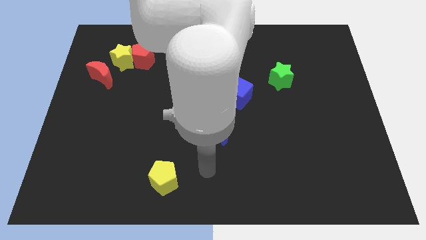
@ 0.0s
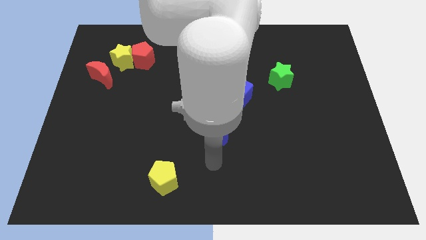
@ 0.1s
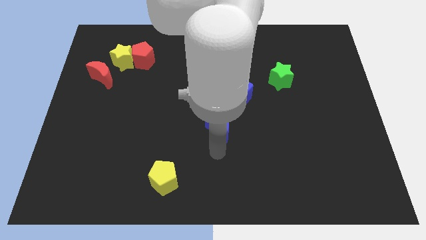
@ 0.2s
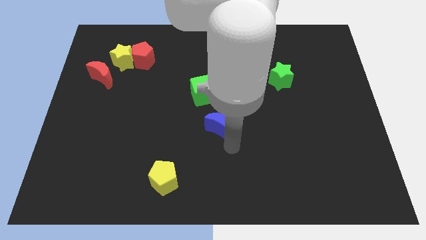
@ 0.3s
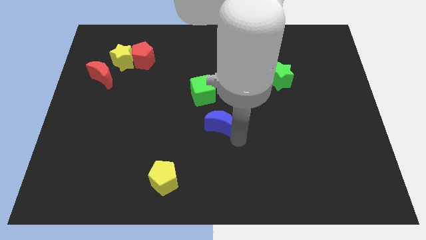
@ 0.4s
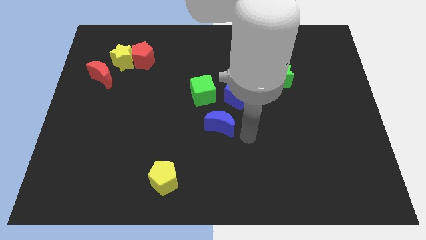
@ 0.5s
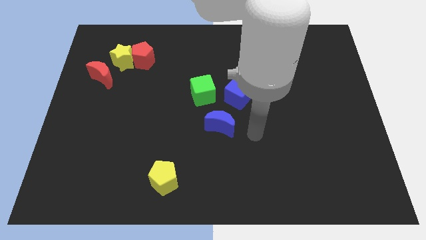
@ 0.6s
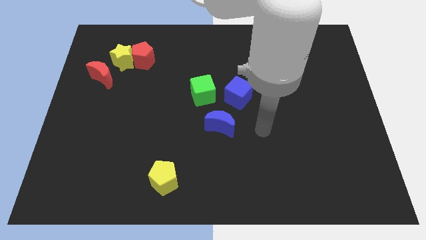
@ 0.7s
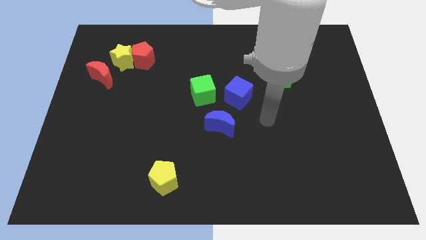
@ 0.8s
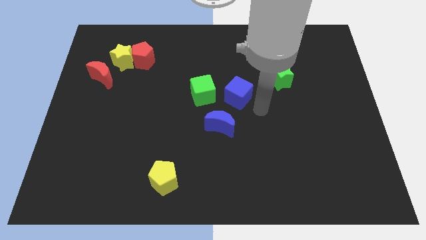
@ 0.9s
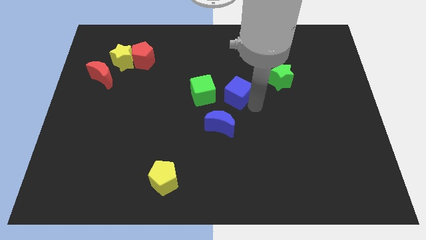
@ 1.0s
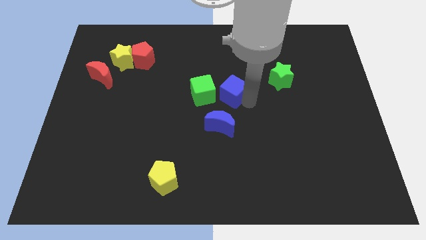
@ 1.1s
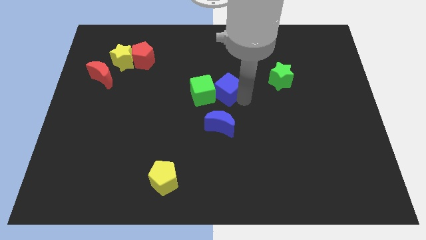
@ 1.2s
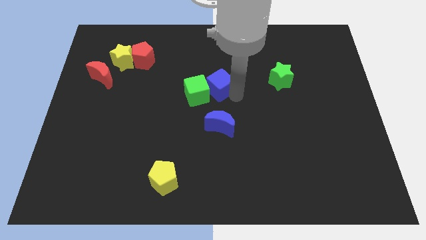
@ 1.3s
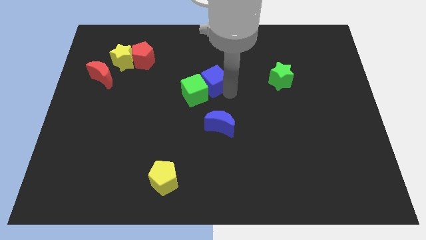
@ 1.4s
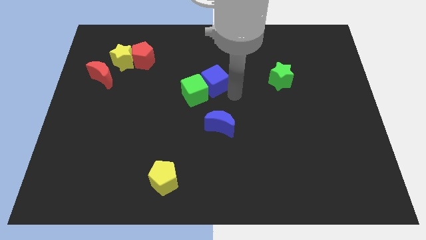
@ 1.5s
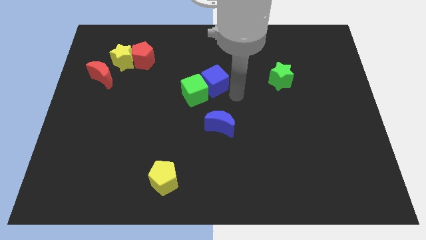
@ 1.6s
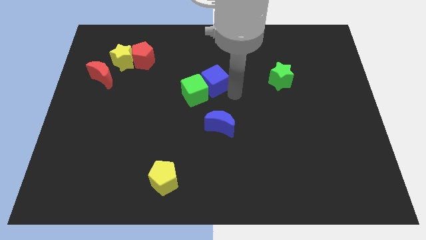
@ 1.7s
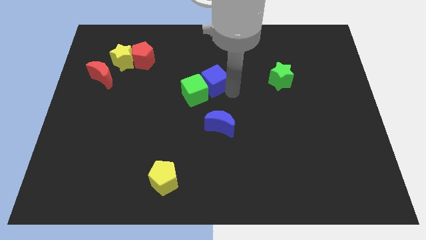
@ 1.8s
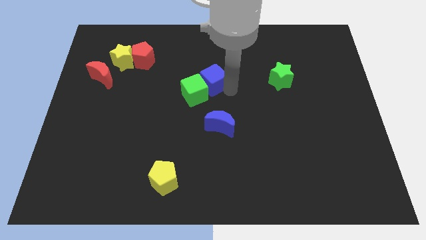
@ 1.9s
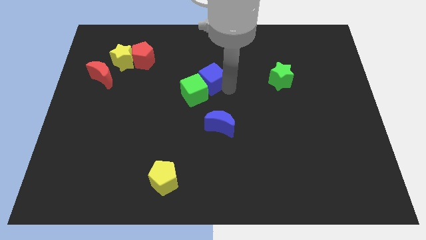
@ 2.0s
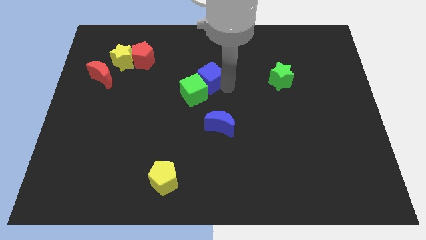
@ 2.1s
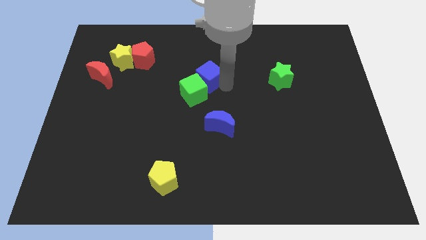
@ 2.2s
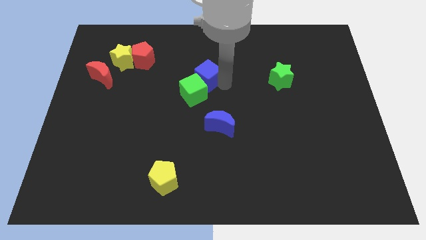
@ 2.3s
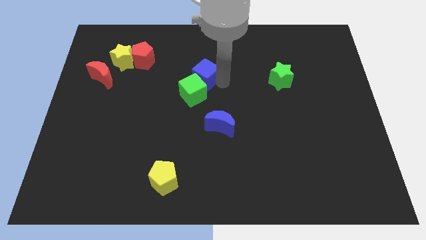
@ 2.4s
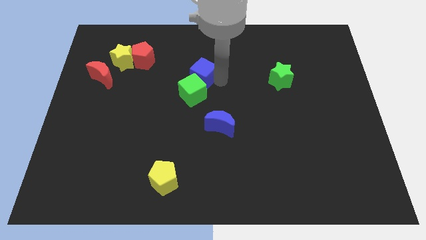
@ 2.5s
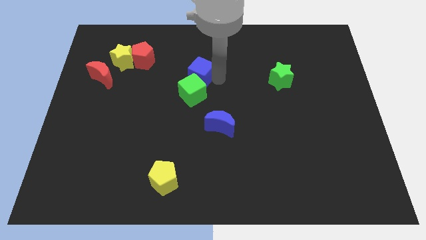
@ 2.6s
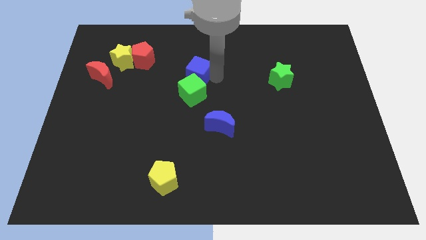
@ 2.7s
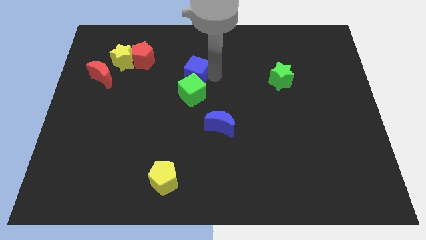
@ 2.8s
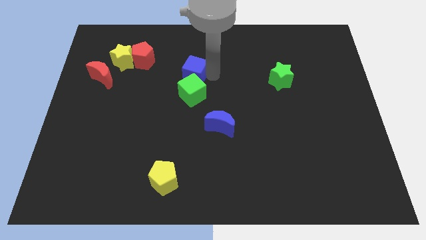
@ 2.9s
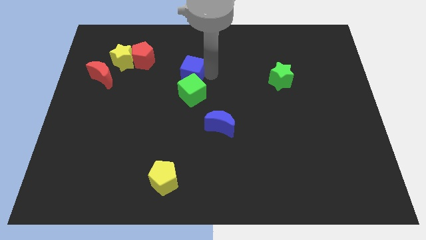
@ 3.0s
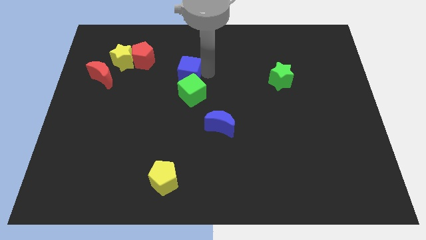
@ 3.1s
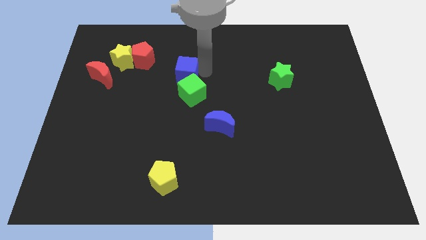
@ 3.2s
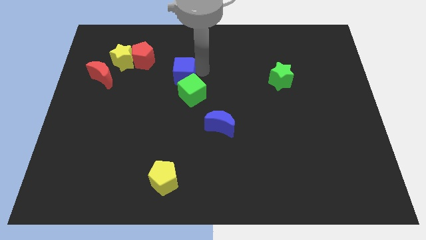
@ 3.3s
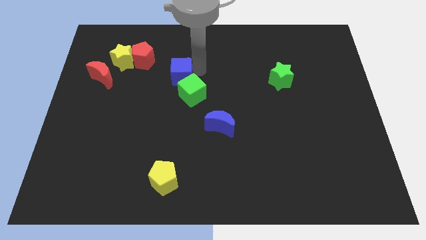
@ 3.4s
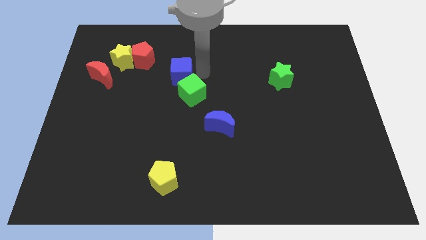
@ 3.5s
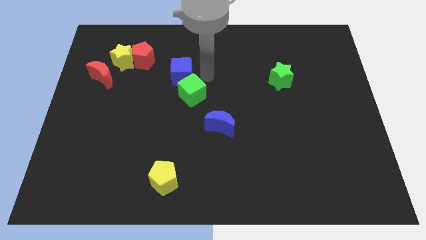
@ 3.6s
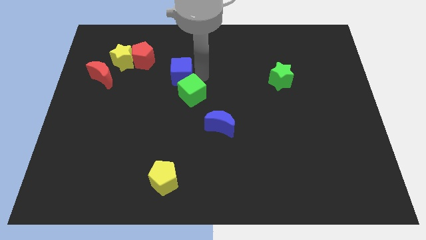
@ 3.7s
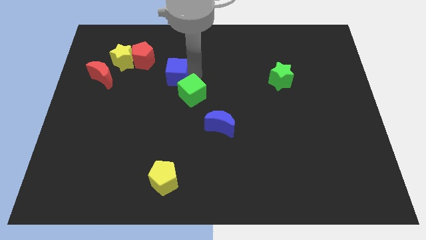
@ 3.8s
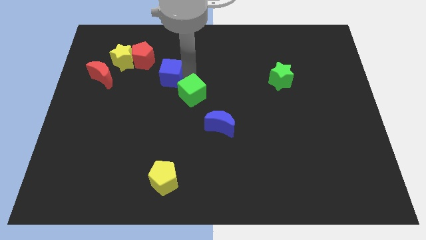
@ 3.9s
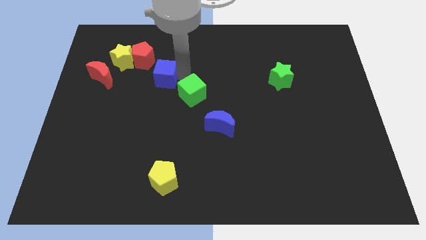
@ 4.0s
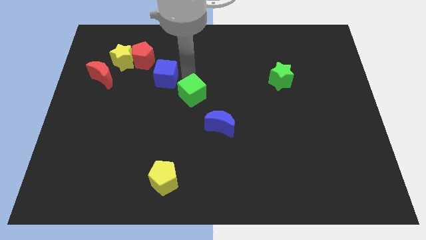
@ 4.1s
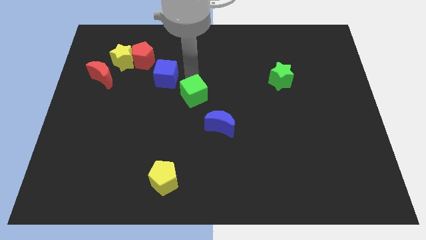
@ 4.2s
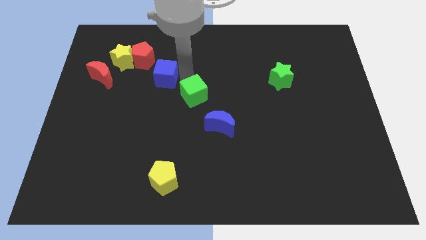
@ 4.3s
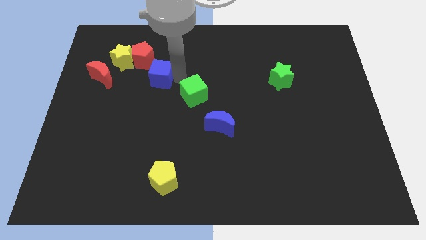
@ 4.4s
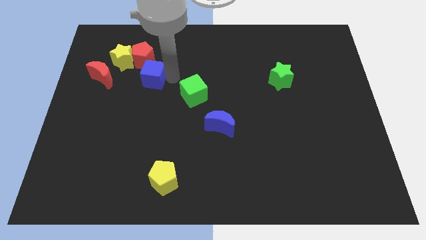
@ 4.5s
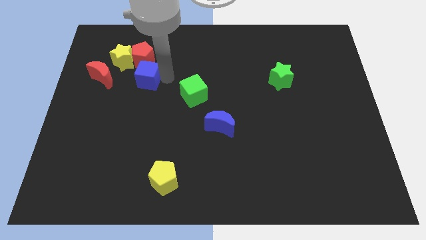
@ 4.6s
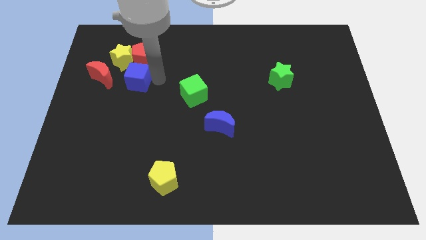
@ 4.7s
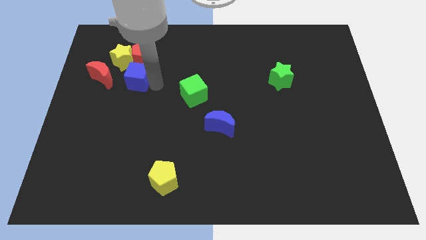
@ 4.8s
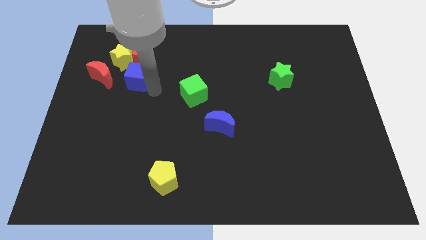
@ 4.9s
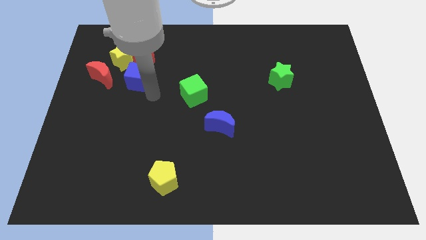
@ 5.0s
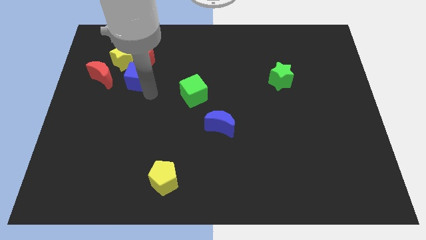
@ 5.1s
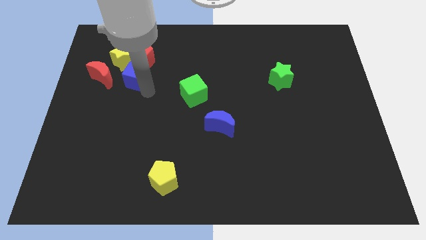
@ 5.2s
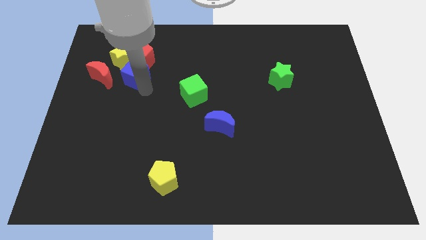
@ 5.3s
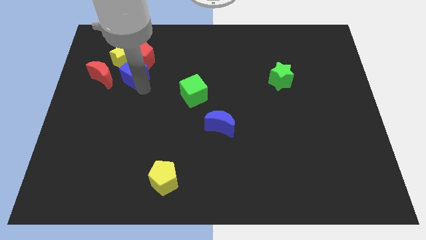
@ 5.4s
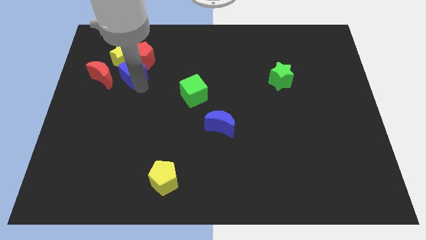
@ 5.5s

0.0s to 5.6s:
move the blue cube close to the yellow star

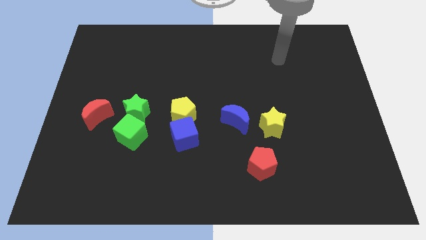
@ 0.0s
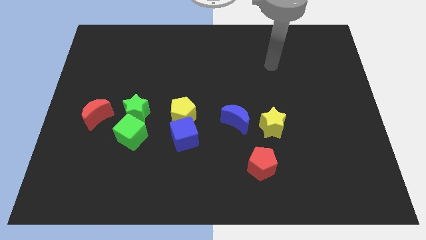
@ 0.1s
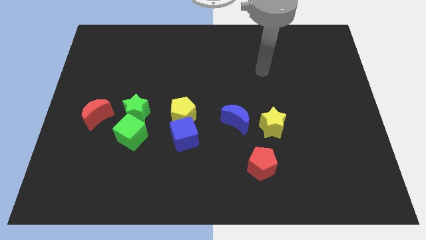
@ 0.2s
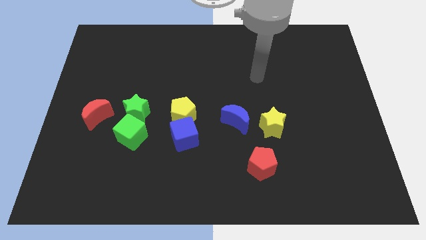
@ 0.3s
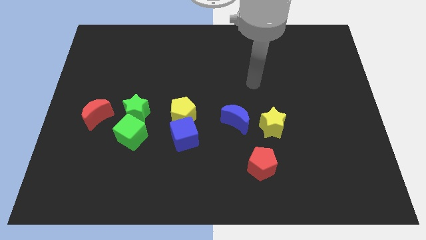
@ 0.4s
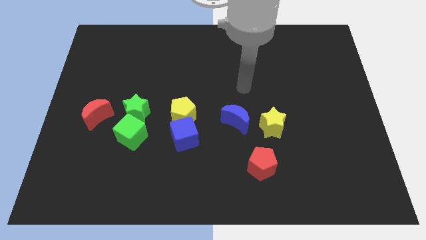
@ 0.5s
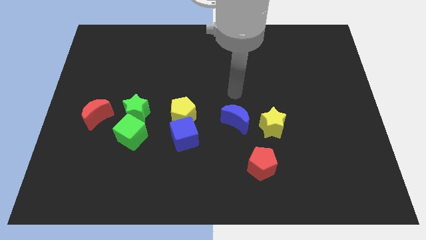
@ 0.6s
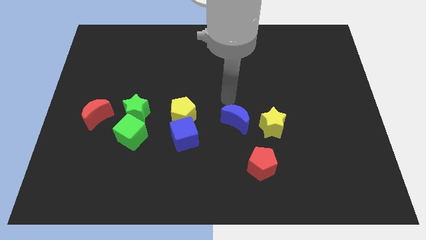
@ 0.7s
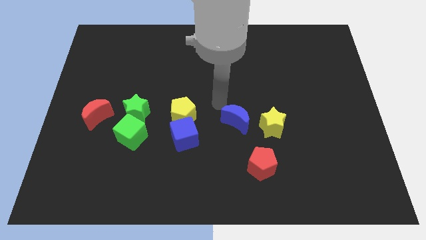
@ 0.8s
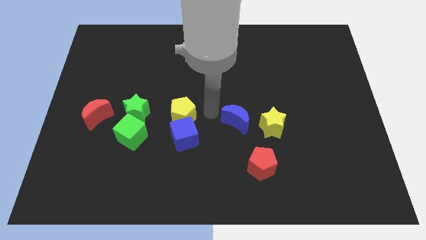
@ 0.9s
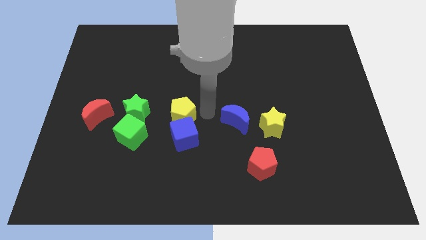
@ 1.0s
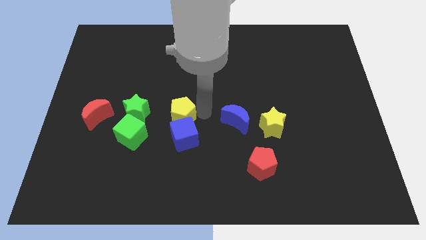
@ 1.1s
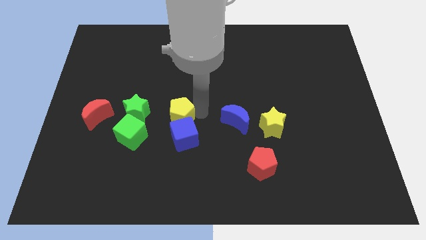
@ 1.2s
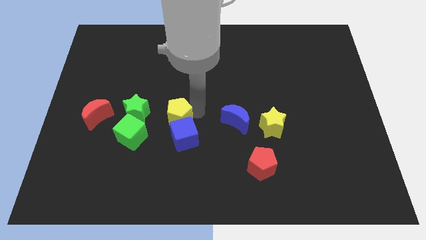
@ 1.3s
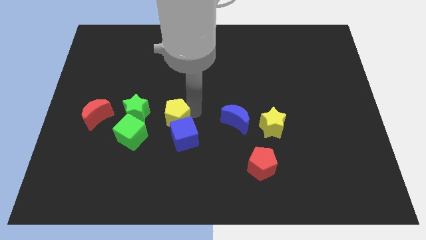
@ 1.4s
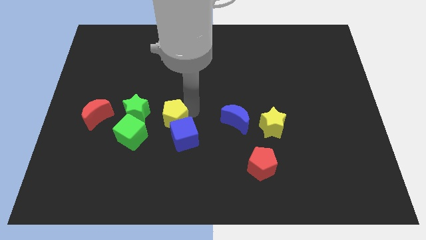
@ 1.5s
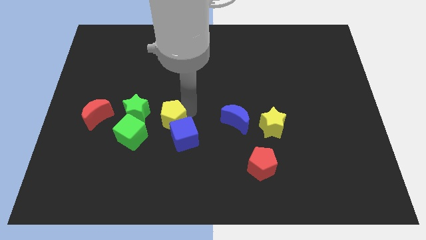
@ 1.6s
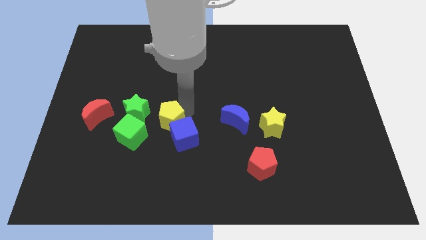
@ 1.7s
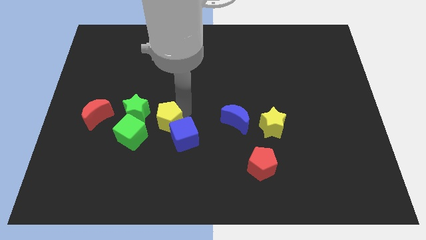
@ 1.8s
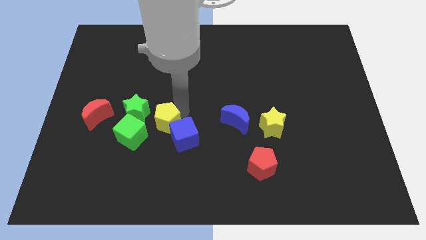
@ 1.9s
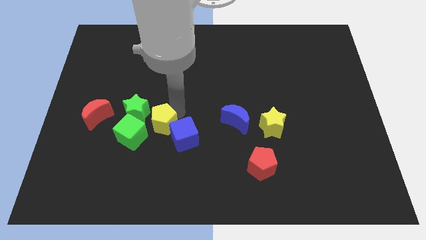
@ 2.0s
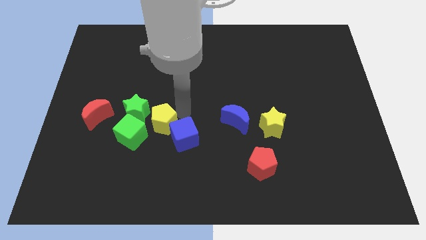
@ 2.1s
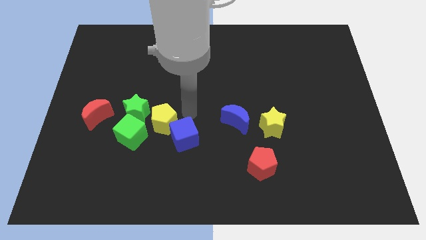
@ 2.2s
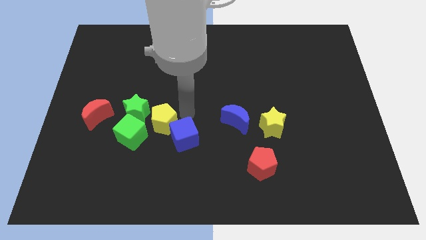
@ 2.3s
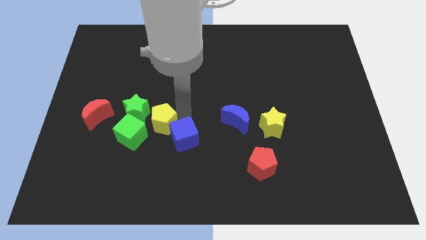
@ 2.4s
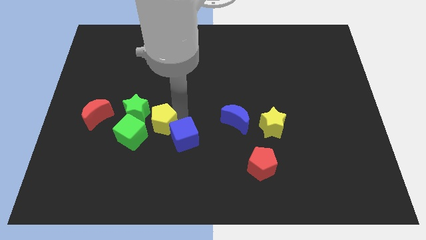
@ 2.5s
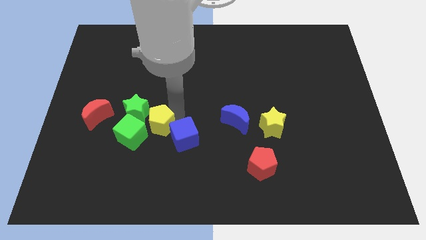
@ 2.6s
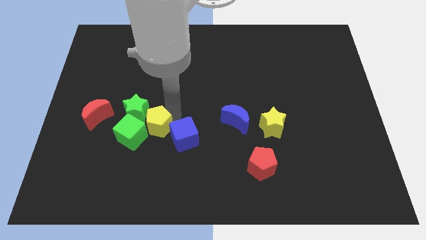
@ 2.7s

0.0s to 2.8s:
slide the yellow pentagon to the green cube
